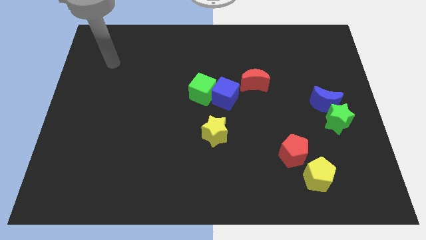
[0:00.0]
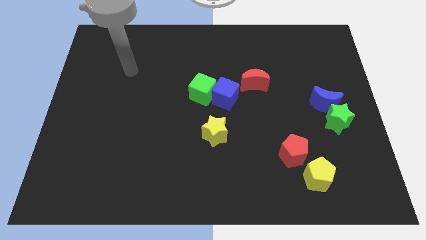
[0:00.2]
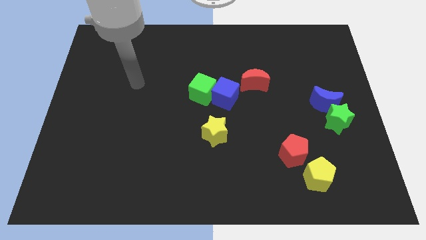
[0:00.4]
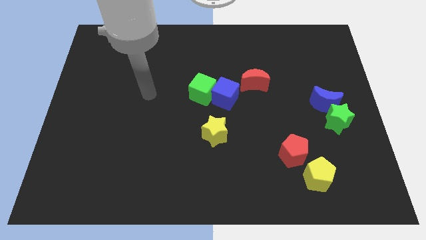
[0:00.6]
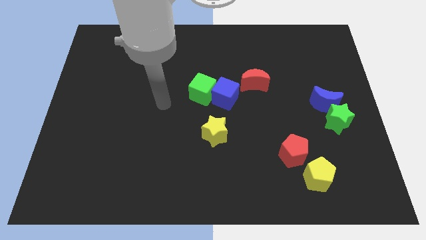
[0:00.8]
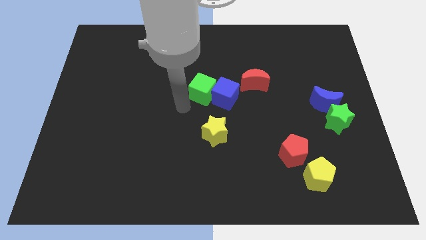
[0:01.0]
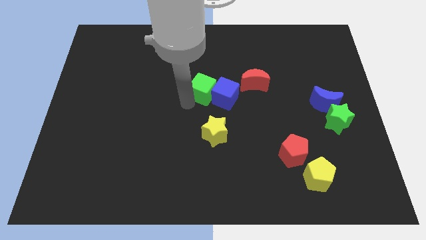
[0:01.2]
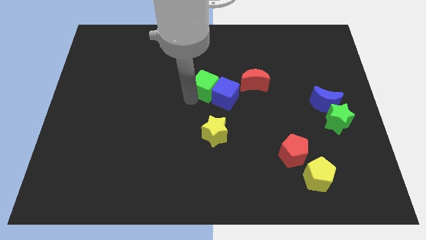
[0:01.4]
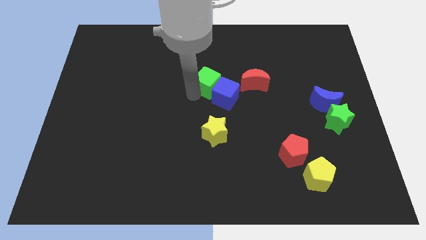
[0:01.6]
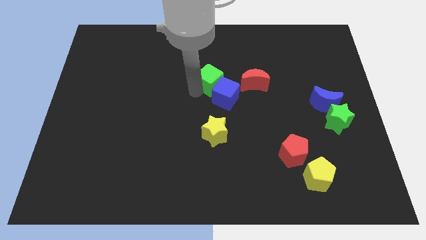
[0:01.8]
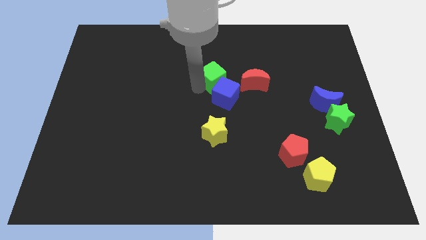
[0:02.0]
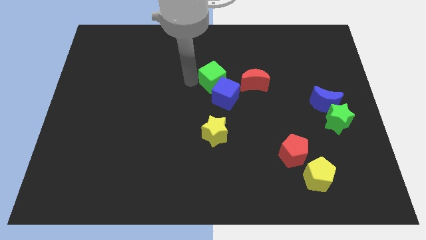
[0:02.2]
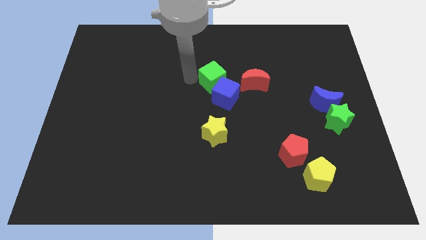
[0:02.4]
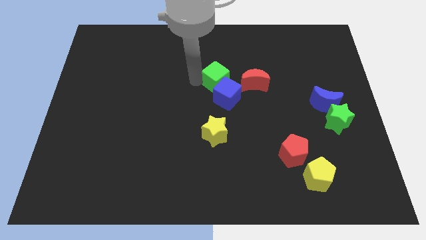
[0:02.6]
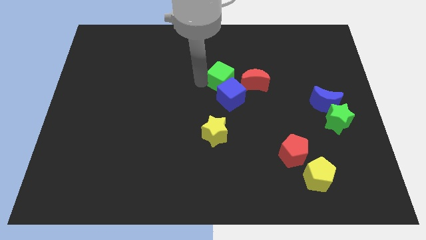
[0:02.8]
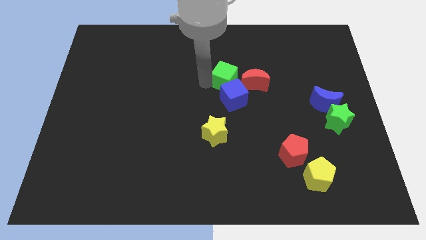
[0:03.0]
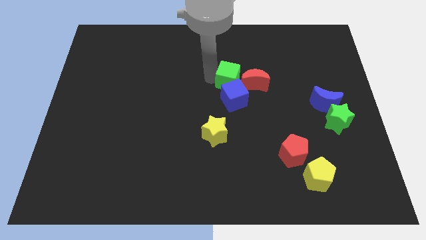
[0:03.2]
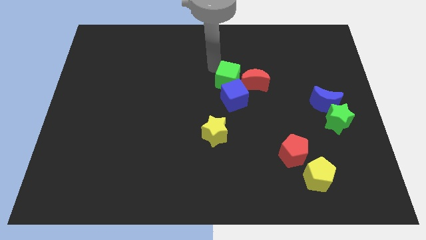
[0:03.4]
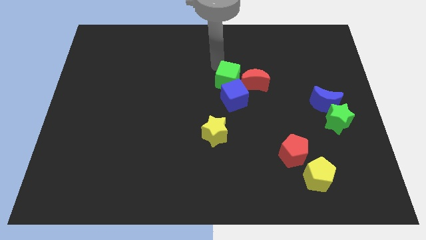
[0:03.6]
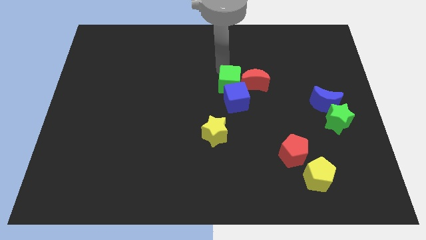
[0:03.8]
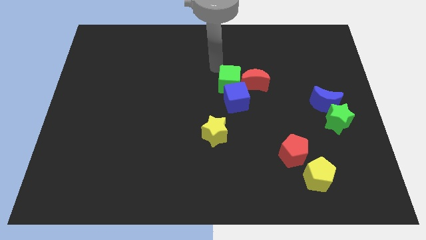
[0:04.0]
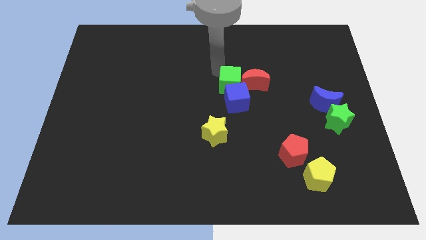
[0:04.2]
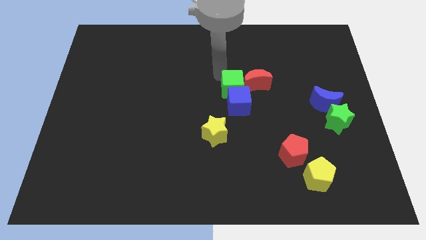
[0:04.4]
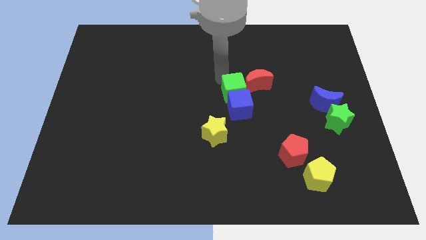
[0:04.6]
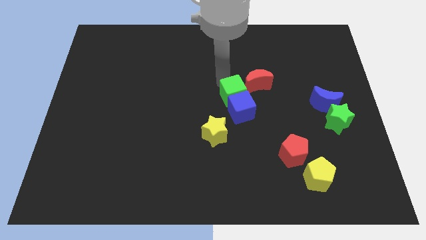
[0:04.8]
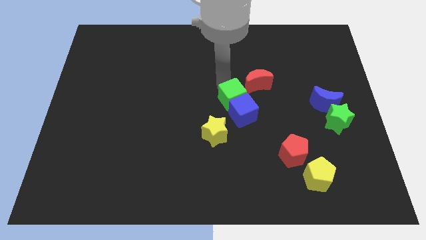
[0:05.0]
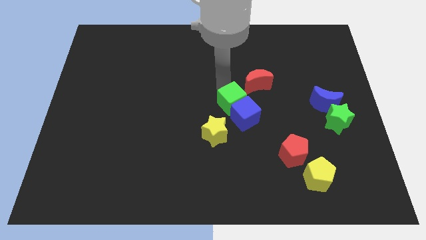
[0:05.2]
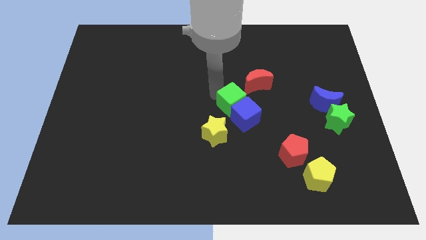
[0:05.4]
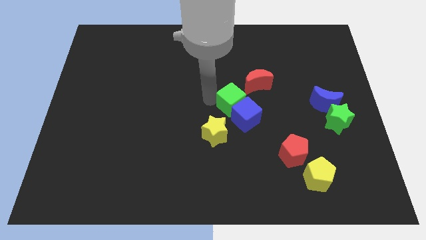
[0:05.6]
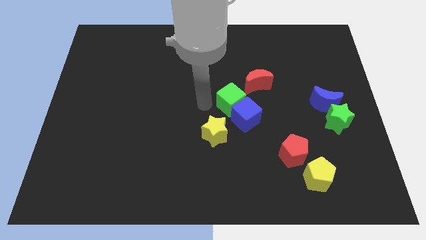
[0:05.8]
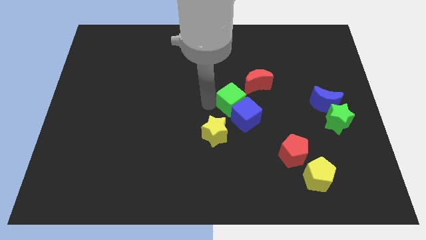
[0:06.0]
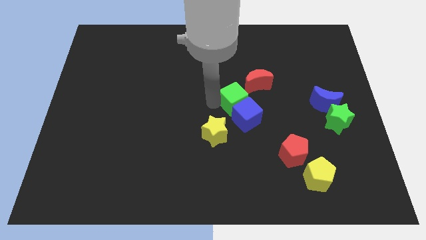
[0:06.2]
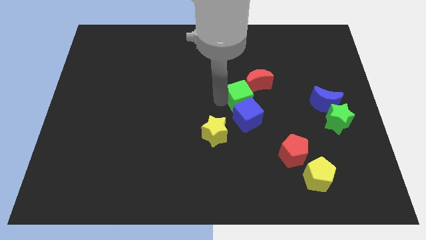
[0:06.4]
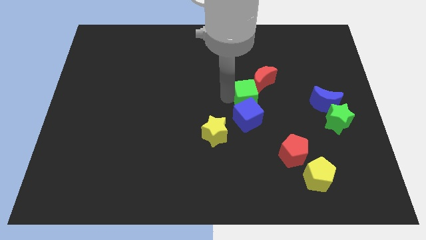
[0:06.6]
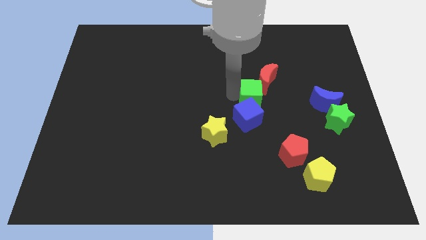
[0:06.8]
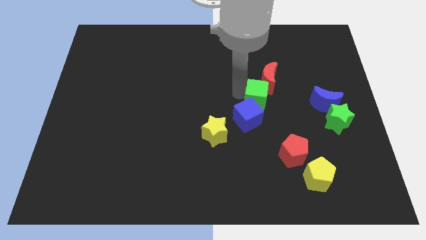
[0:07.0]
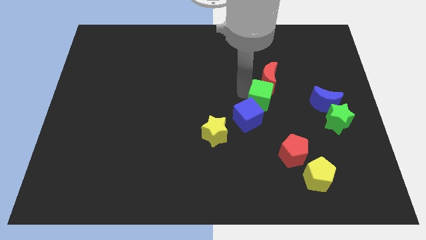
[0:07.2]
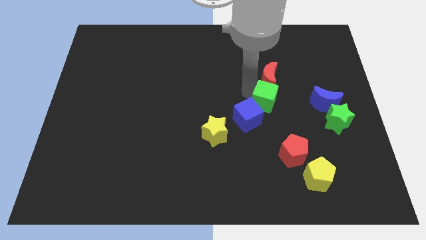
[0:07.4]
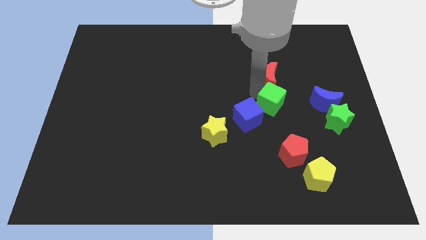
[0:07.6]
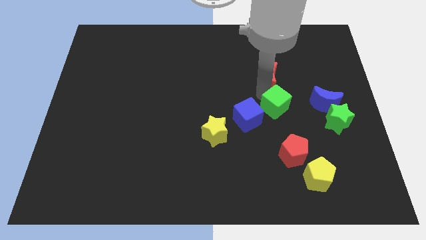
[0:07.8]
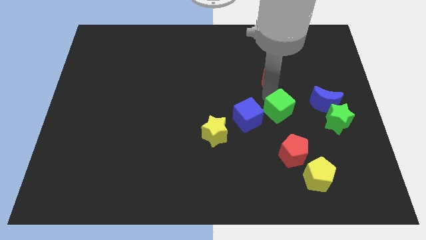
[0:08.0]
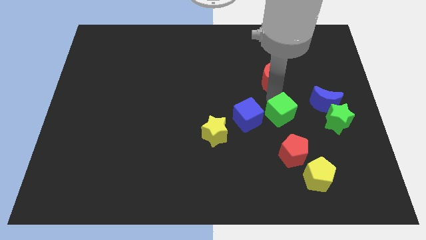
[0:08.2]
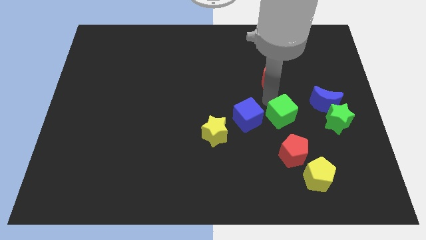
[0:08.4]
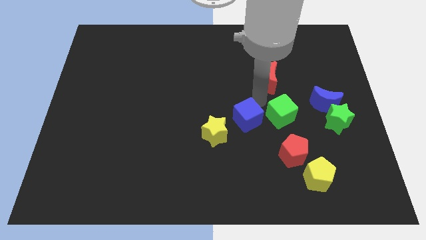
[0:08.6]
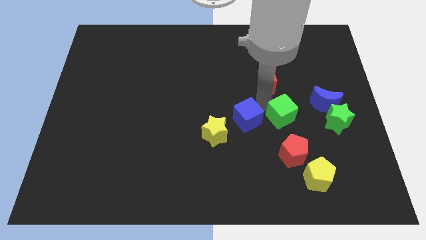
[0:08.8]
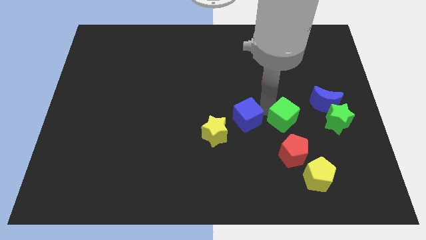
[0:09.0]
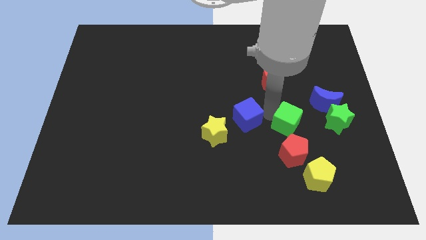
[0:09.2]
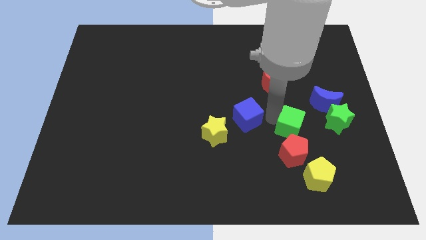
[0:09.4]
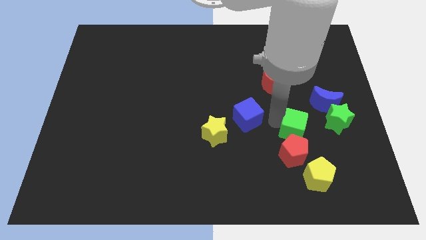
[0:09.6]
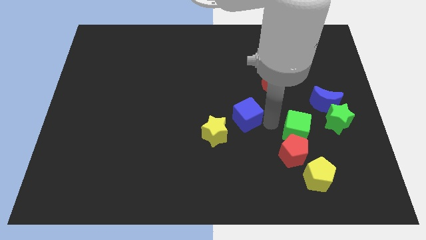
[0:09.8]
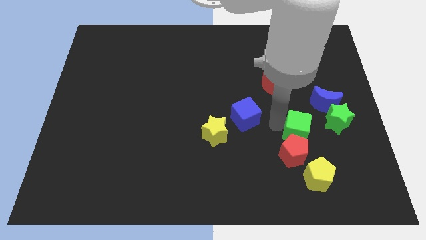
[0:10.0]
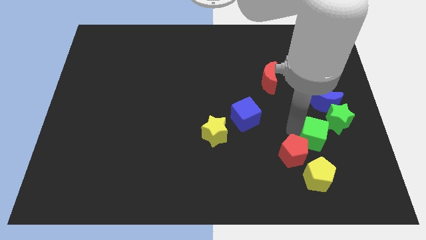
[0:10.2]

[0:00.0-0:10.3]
push the green cube below the blue moon

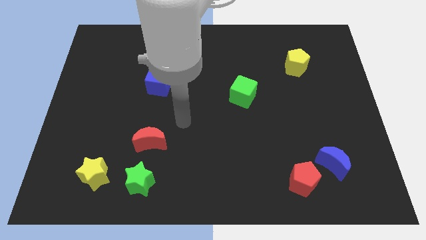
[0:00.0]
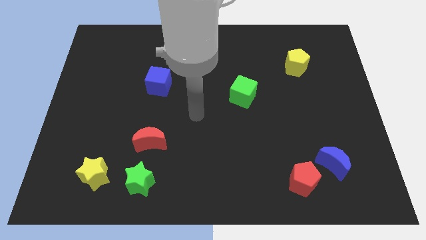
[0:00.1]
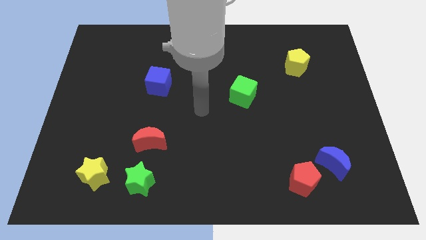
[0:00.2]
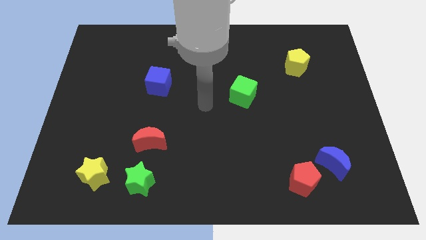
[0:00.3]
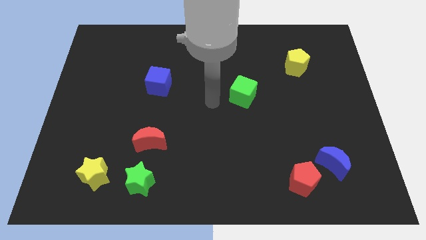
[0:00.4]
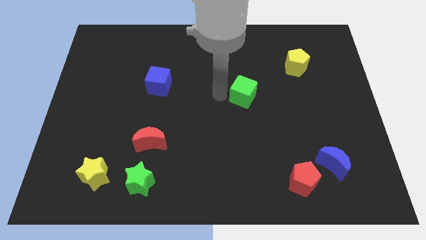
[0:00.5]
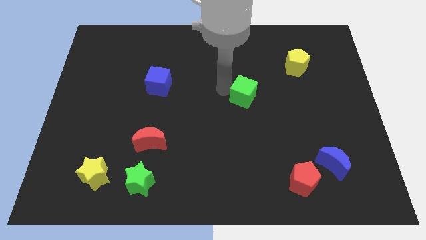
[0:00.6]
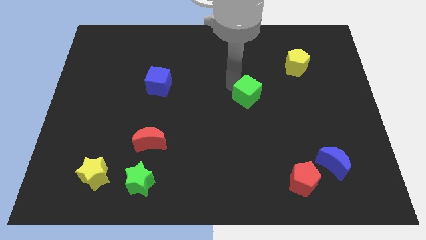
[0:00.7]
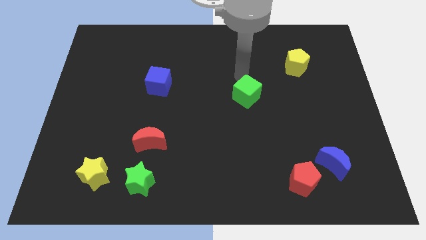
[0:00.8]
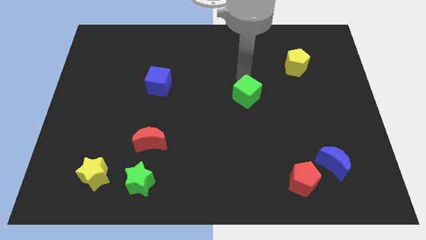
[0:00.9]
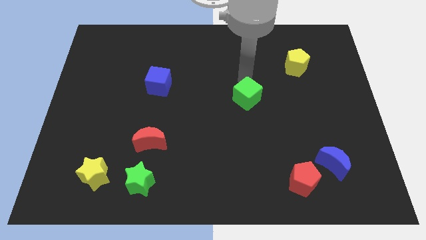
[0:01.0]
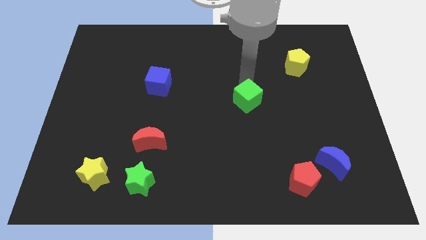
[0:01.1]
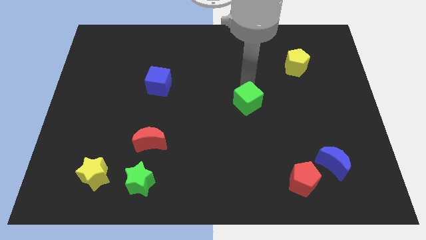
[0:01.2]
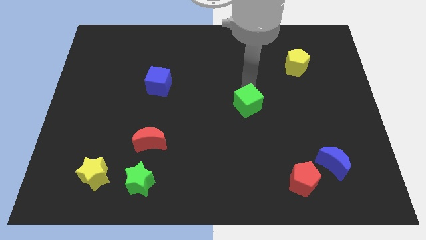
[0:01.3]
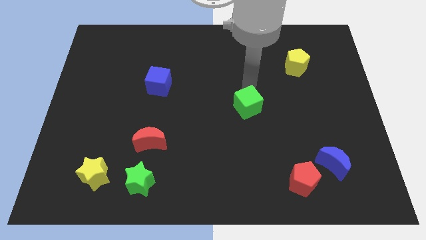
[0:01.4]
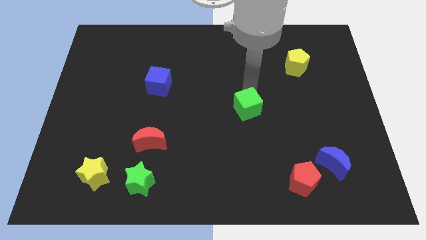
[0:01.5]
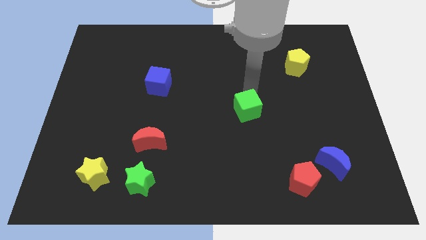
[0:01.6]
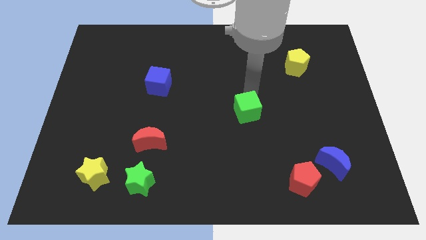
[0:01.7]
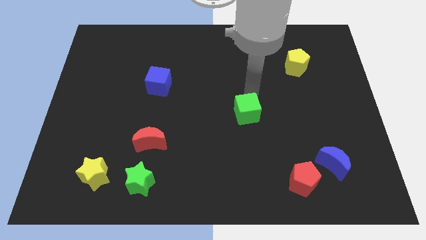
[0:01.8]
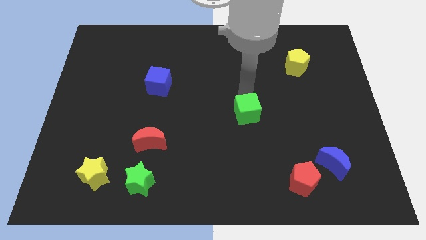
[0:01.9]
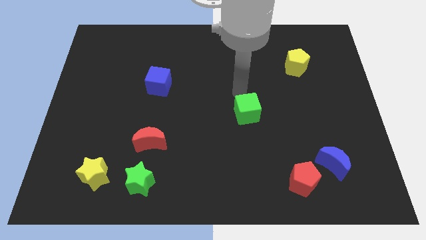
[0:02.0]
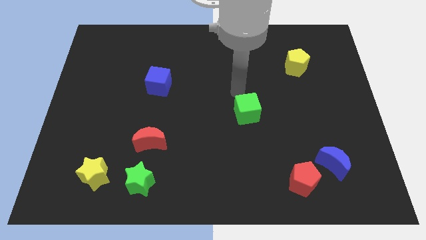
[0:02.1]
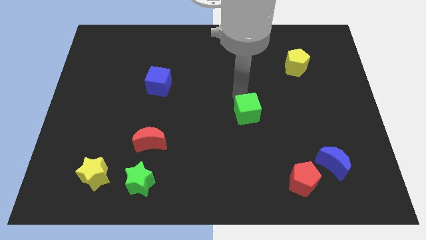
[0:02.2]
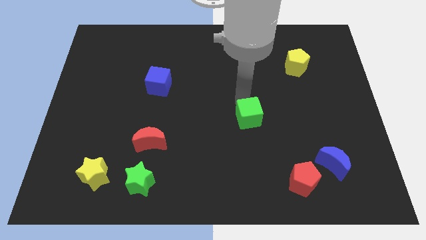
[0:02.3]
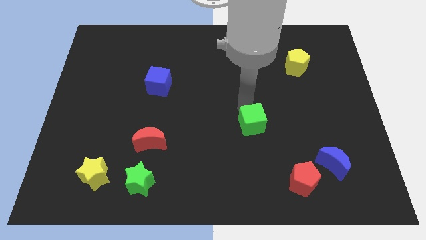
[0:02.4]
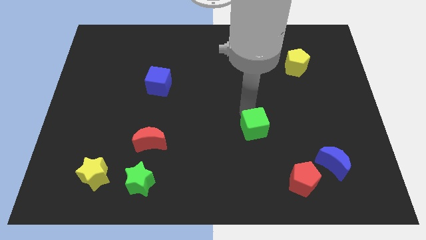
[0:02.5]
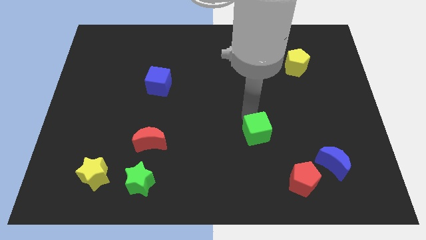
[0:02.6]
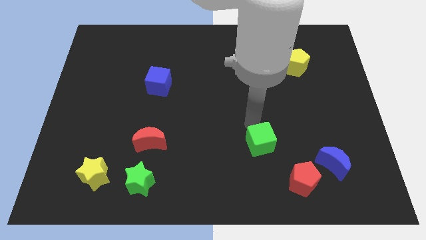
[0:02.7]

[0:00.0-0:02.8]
push the green cube diagonally up and to the left of the red pentagon
